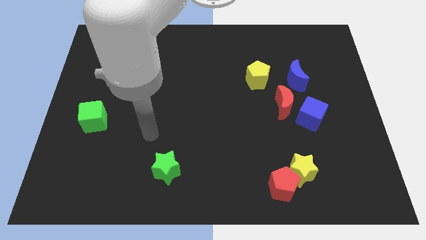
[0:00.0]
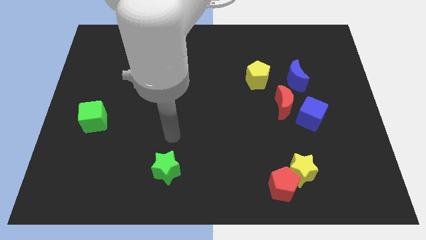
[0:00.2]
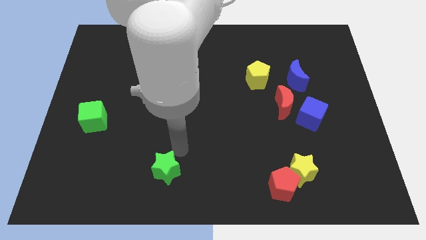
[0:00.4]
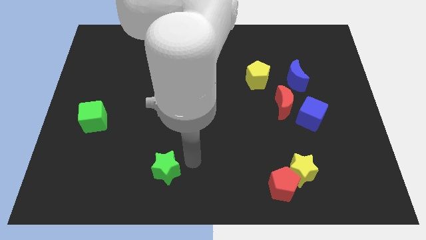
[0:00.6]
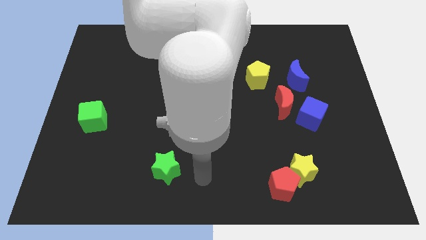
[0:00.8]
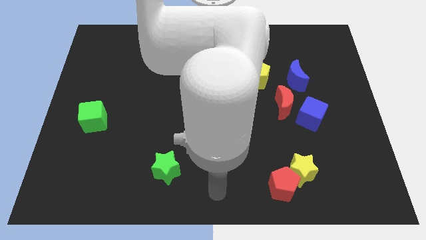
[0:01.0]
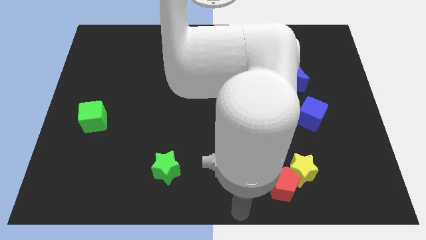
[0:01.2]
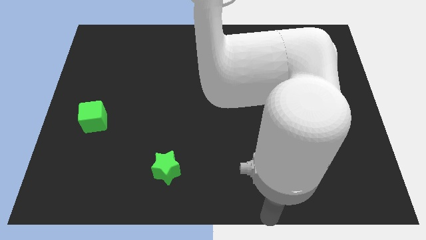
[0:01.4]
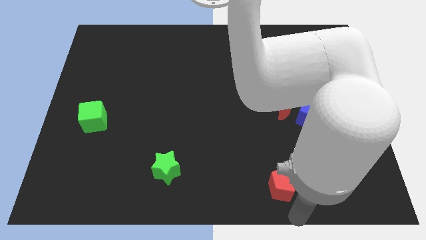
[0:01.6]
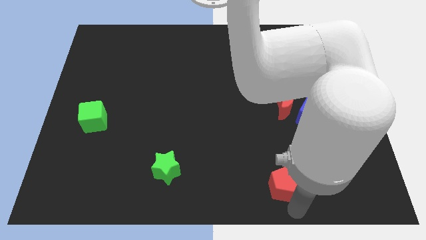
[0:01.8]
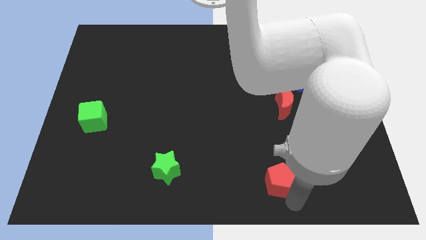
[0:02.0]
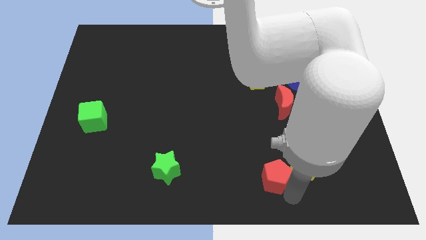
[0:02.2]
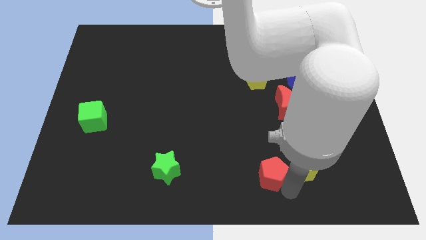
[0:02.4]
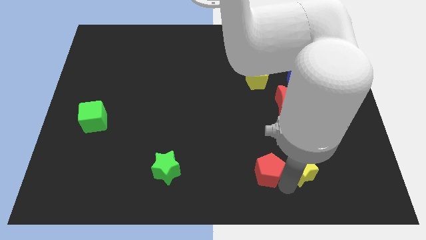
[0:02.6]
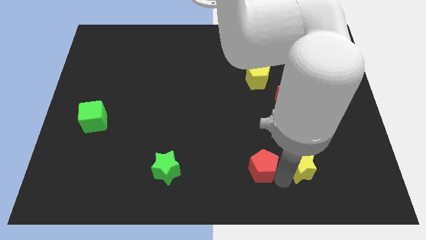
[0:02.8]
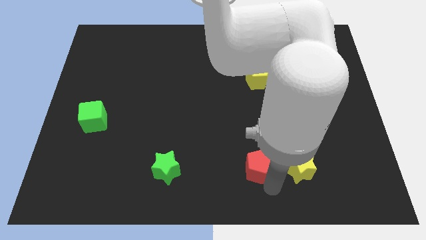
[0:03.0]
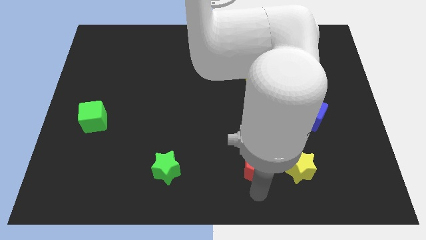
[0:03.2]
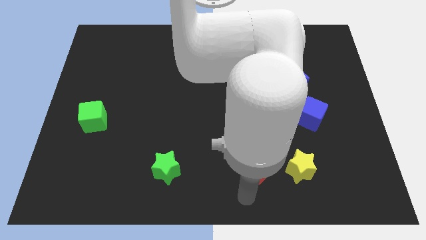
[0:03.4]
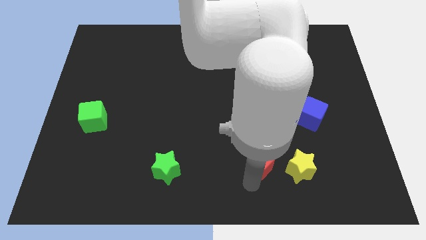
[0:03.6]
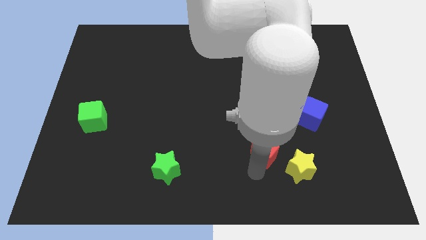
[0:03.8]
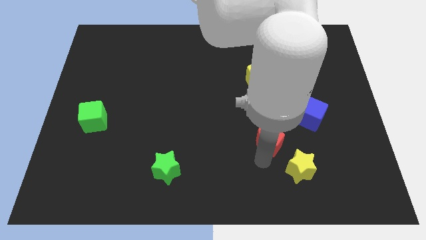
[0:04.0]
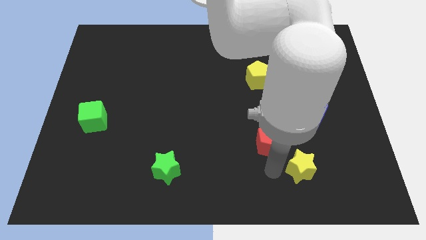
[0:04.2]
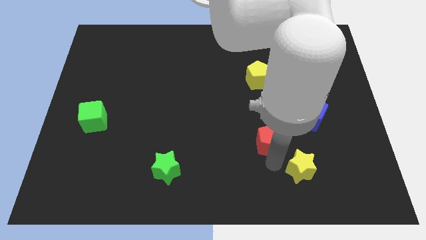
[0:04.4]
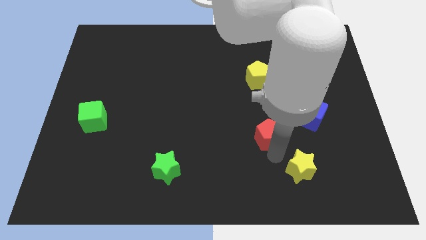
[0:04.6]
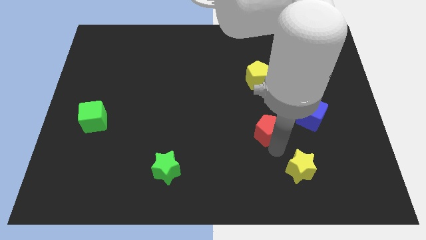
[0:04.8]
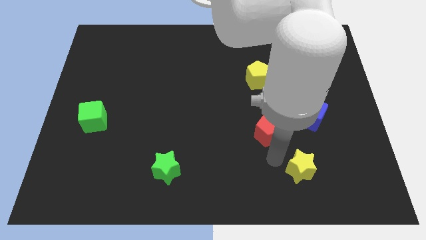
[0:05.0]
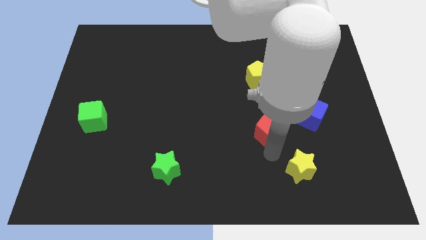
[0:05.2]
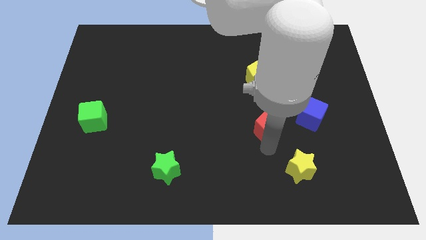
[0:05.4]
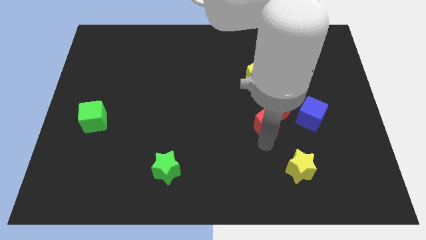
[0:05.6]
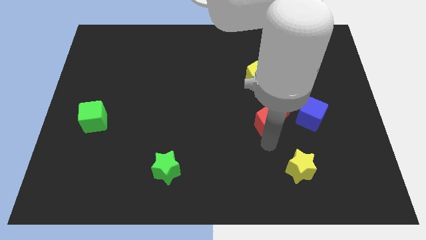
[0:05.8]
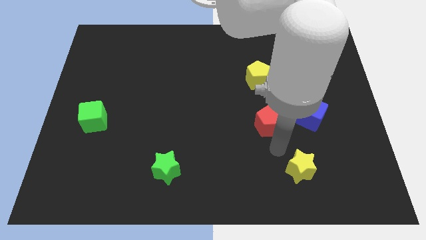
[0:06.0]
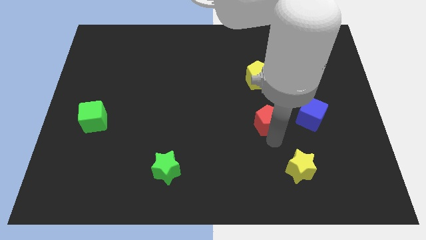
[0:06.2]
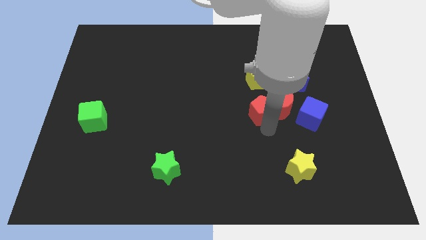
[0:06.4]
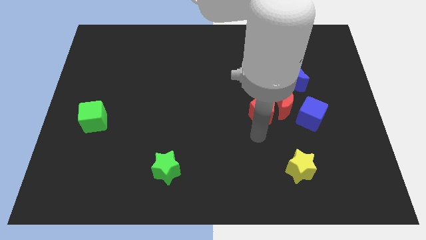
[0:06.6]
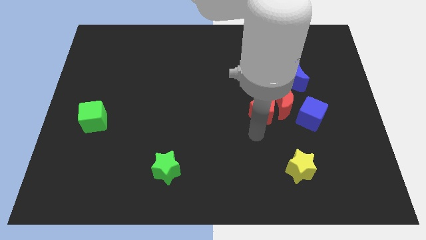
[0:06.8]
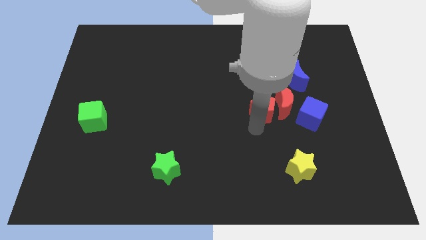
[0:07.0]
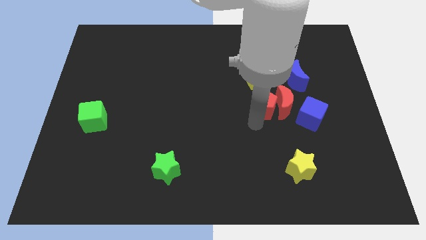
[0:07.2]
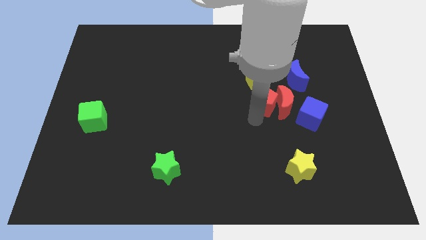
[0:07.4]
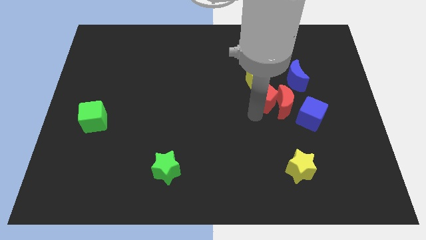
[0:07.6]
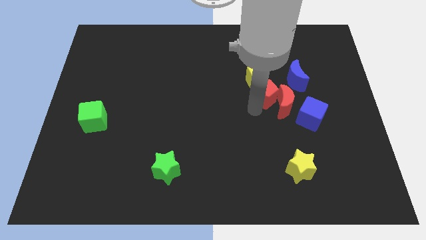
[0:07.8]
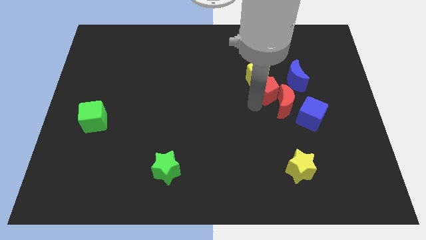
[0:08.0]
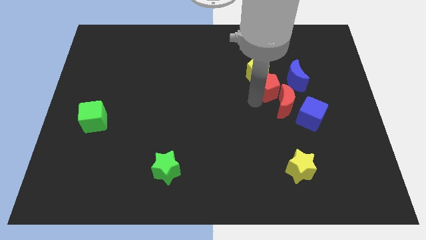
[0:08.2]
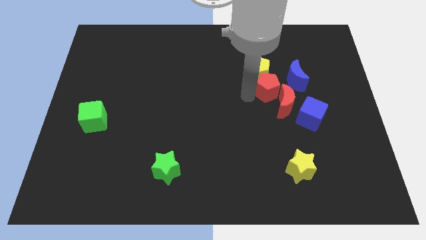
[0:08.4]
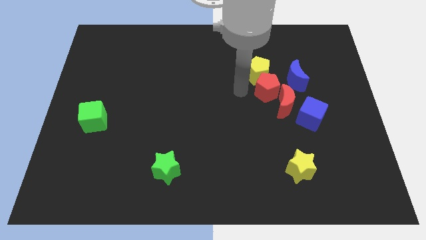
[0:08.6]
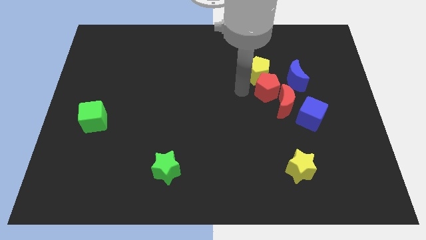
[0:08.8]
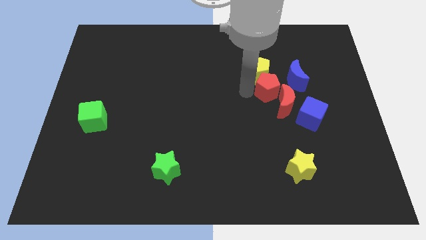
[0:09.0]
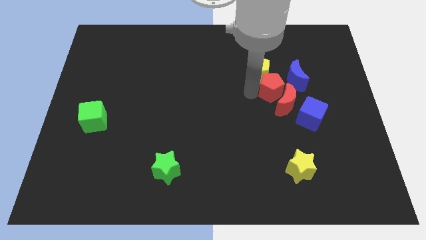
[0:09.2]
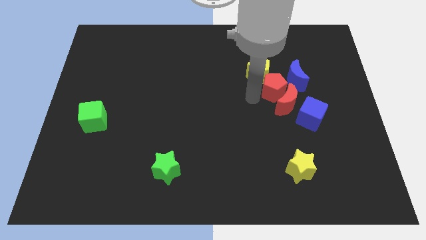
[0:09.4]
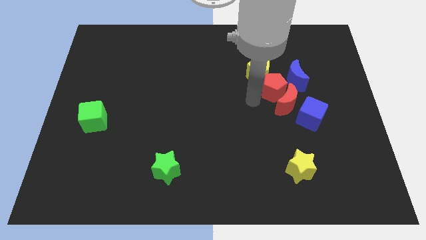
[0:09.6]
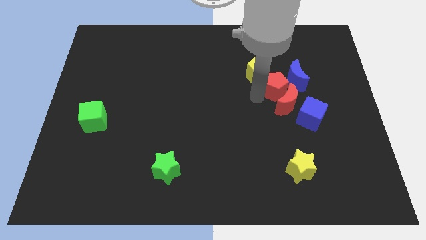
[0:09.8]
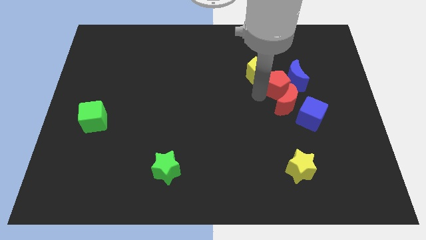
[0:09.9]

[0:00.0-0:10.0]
slide the red pentagon towards the blue moon

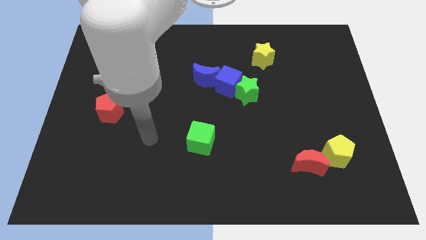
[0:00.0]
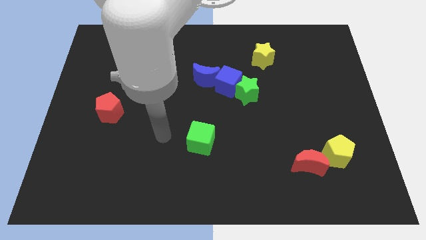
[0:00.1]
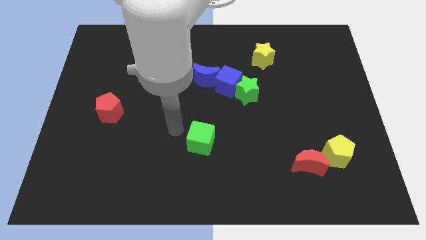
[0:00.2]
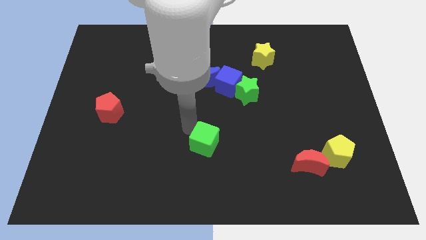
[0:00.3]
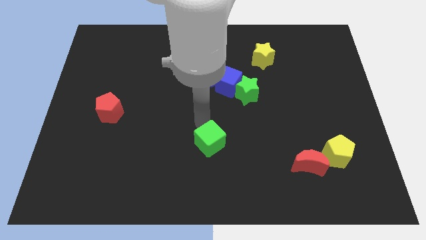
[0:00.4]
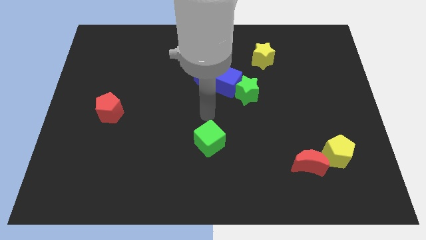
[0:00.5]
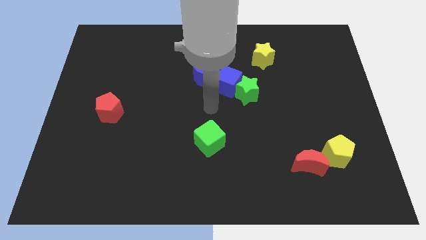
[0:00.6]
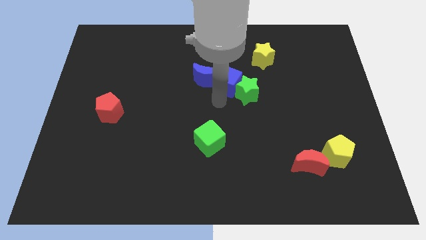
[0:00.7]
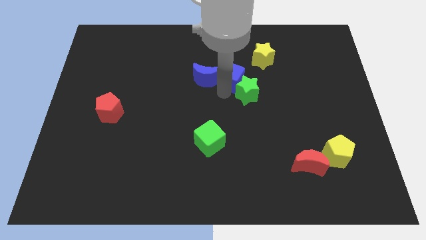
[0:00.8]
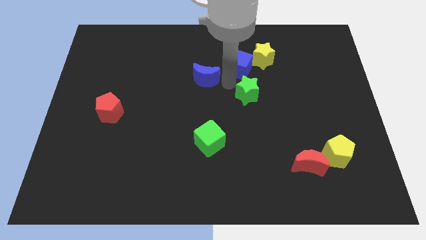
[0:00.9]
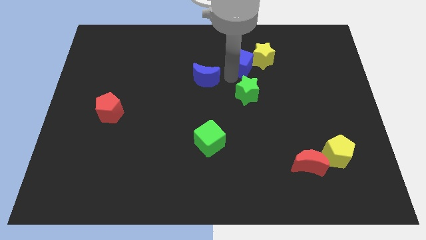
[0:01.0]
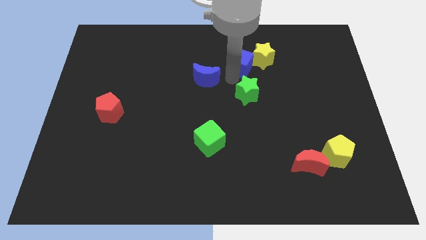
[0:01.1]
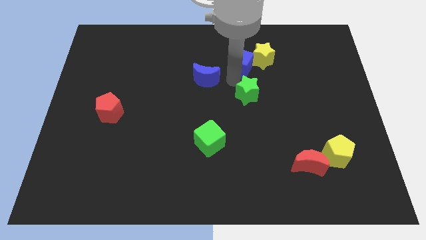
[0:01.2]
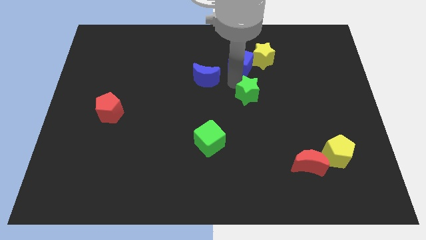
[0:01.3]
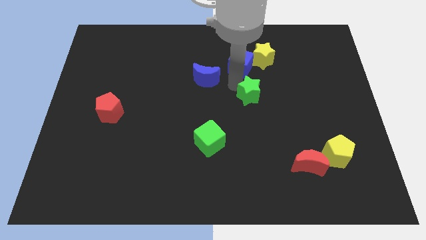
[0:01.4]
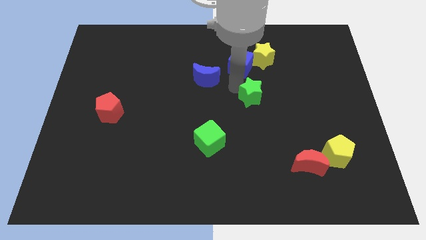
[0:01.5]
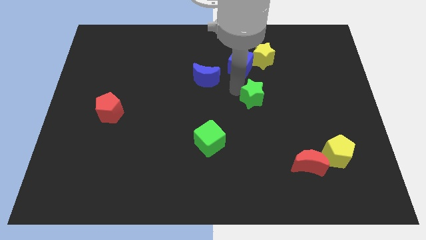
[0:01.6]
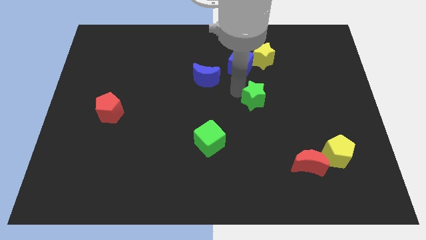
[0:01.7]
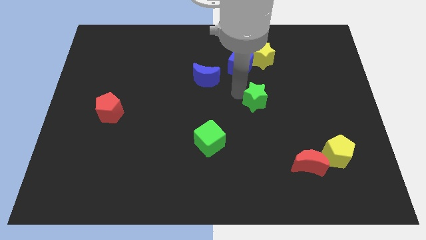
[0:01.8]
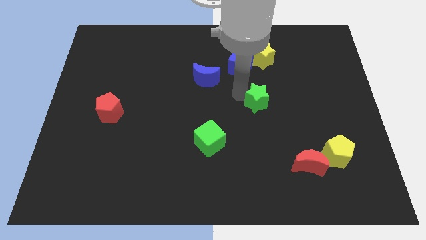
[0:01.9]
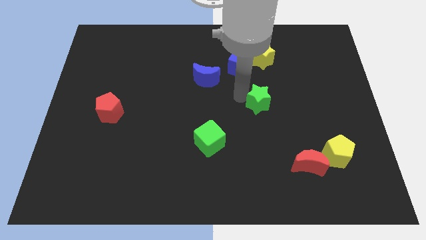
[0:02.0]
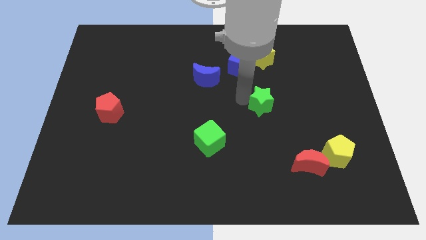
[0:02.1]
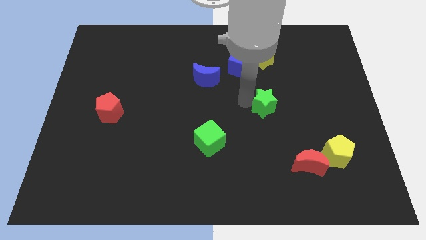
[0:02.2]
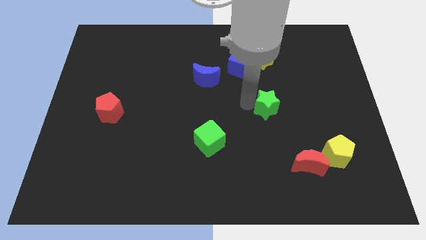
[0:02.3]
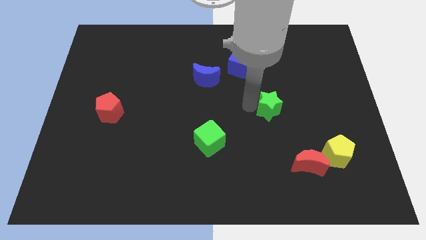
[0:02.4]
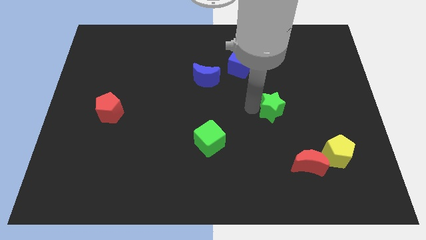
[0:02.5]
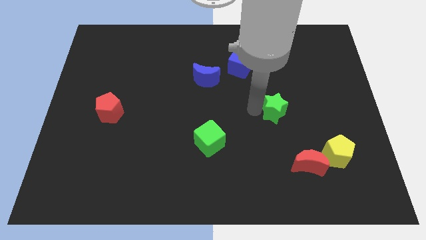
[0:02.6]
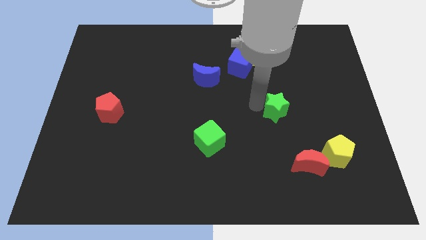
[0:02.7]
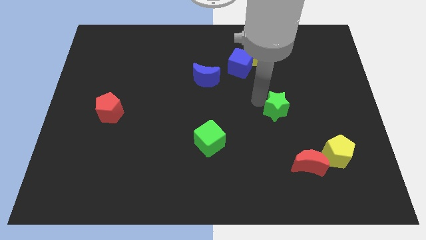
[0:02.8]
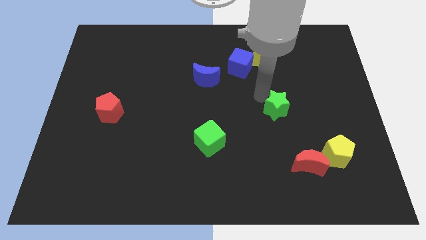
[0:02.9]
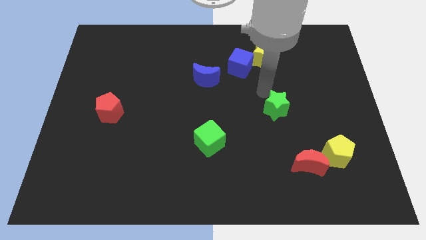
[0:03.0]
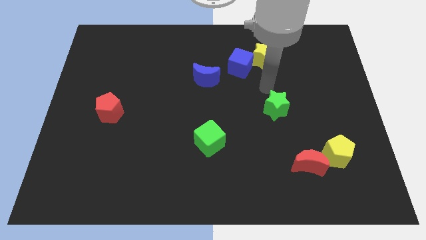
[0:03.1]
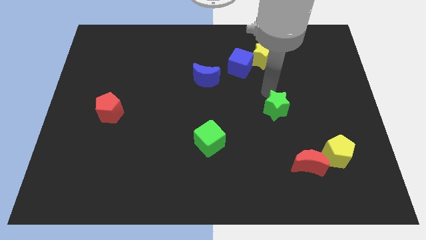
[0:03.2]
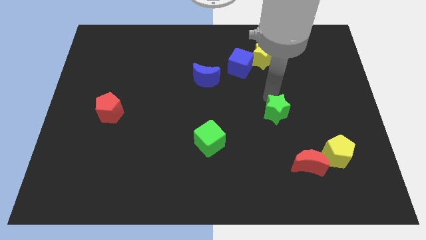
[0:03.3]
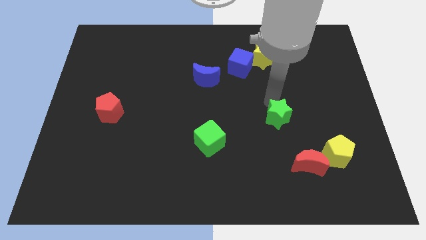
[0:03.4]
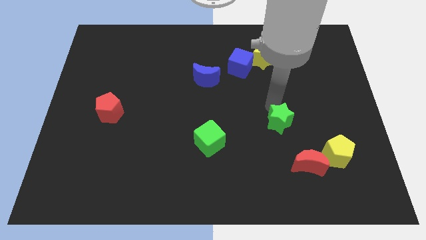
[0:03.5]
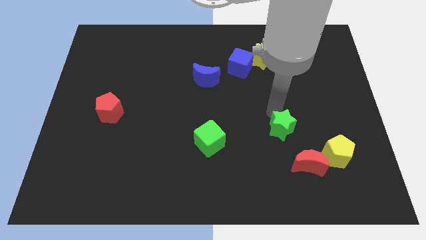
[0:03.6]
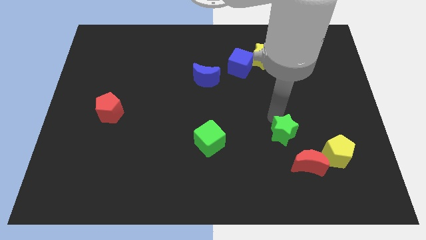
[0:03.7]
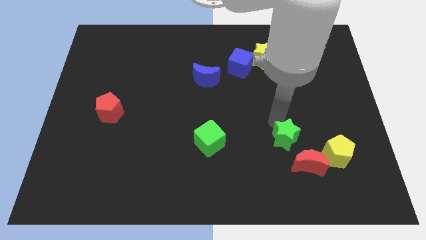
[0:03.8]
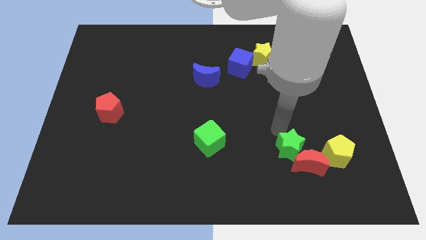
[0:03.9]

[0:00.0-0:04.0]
push the green star to the red moon
